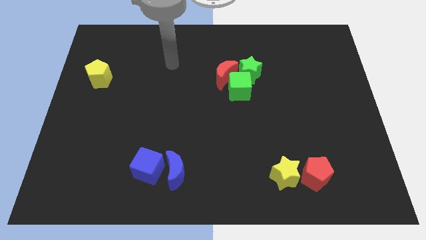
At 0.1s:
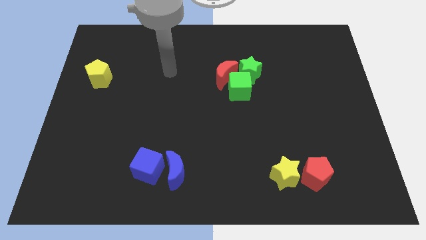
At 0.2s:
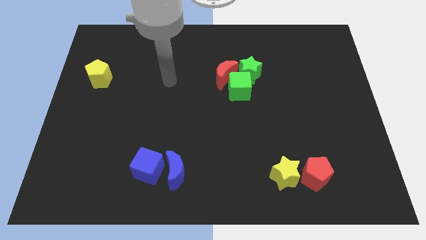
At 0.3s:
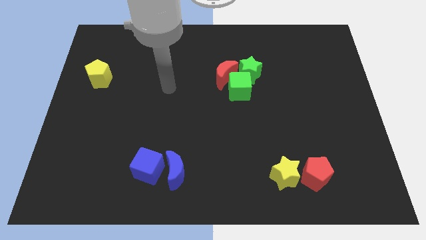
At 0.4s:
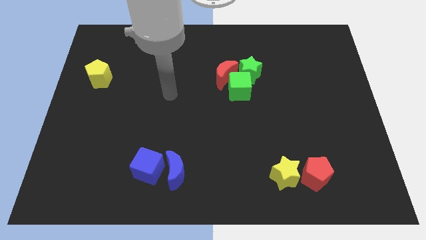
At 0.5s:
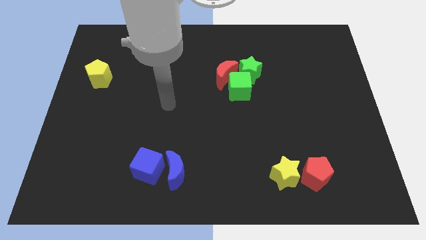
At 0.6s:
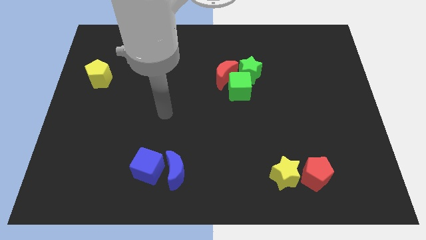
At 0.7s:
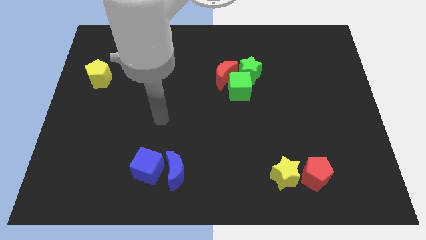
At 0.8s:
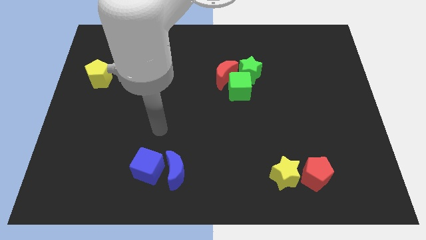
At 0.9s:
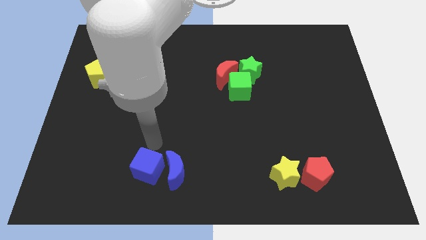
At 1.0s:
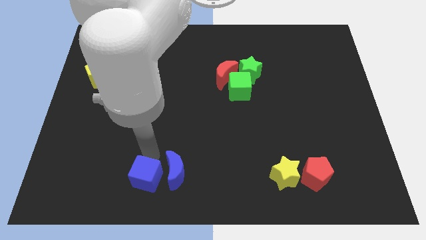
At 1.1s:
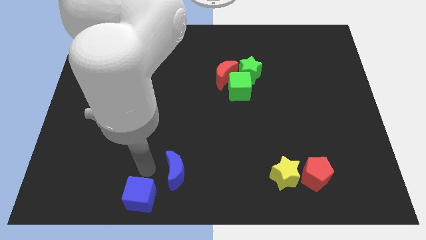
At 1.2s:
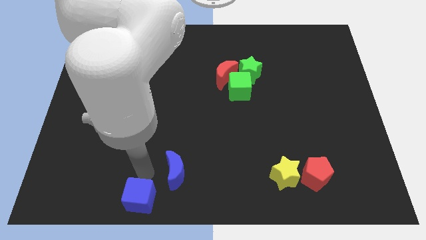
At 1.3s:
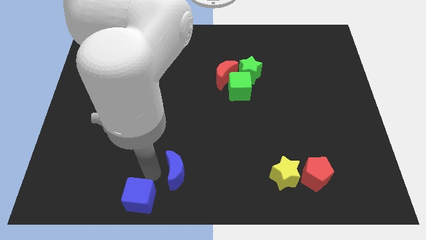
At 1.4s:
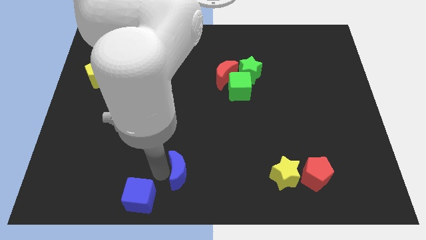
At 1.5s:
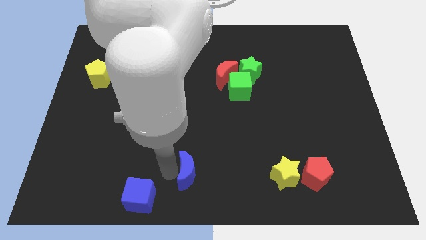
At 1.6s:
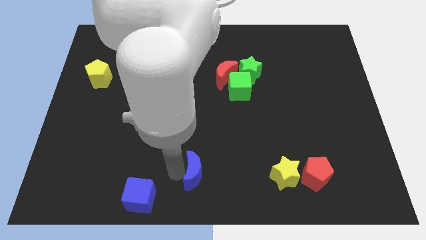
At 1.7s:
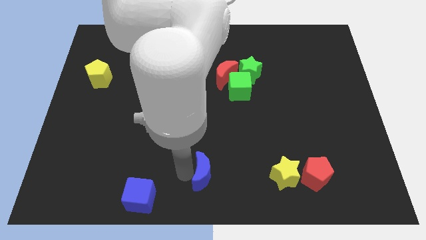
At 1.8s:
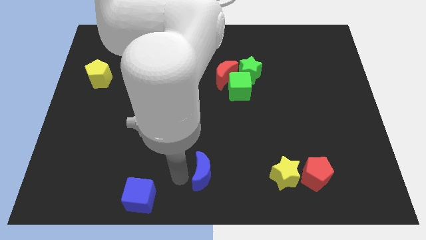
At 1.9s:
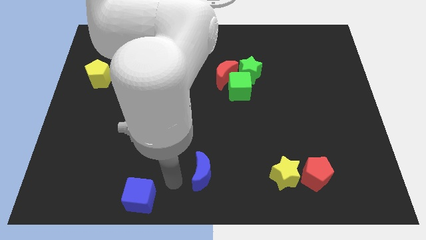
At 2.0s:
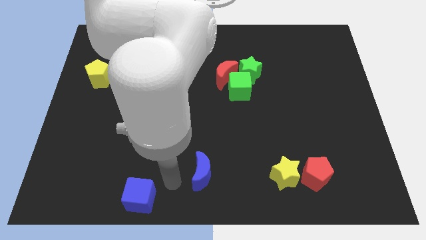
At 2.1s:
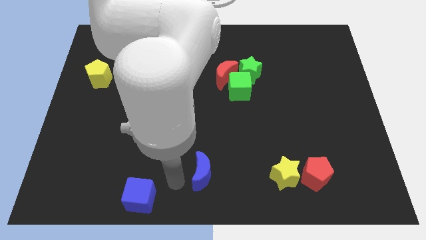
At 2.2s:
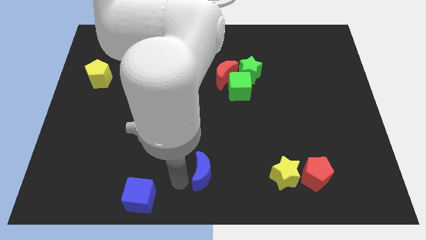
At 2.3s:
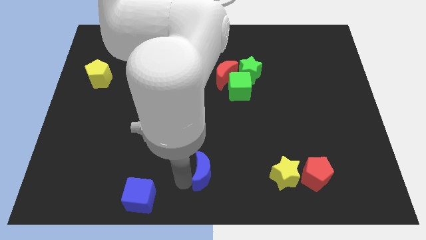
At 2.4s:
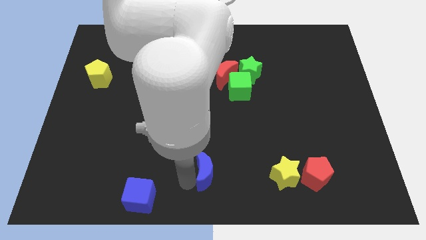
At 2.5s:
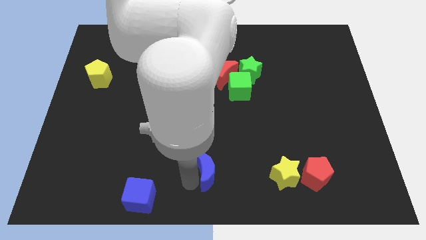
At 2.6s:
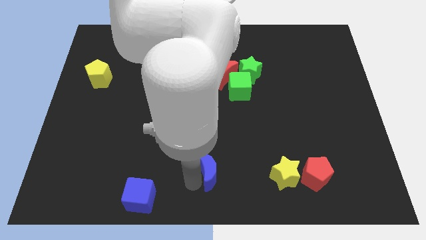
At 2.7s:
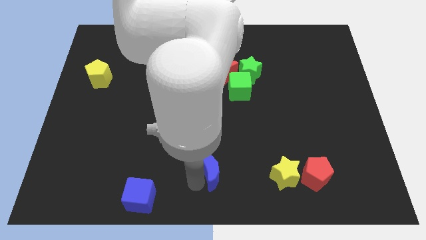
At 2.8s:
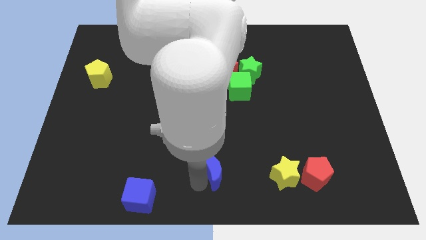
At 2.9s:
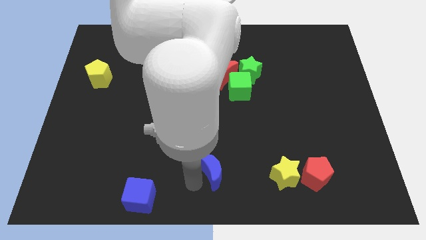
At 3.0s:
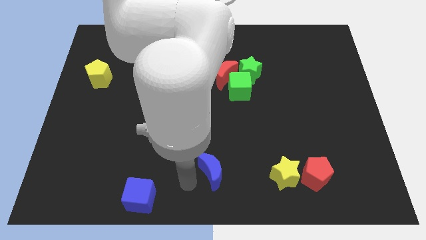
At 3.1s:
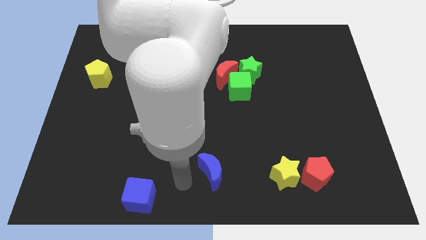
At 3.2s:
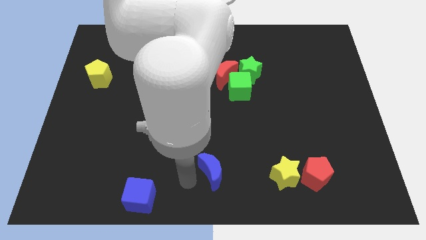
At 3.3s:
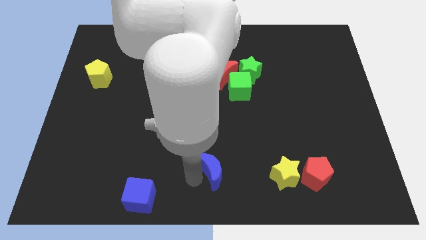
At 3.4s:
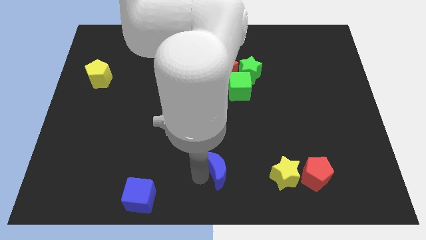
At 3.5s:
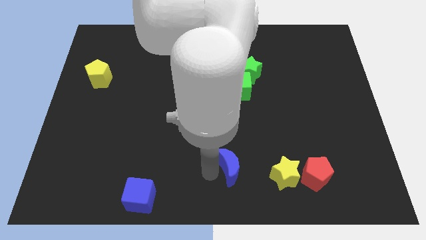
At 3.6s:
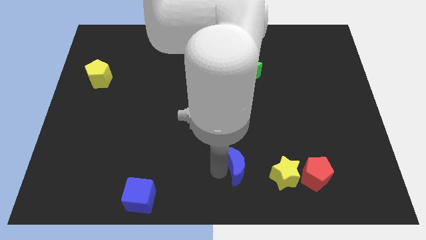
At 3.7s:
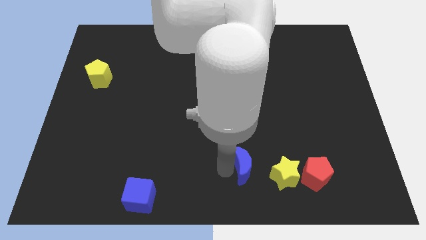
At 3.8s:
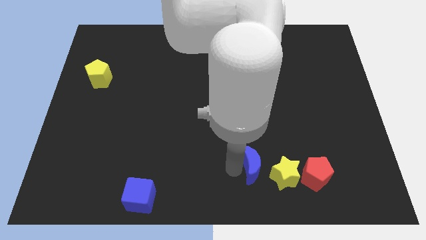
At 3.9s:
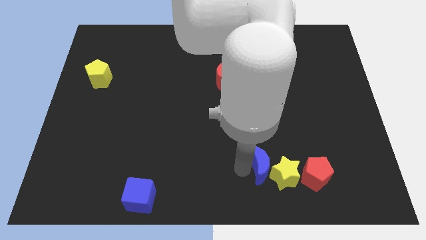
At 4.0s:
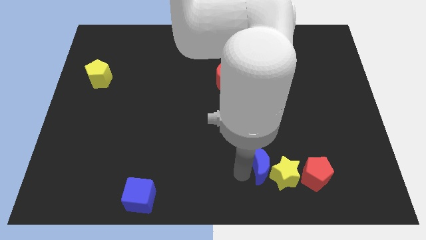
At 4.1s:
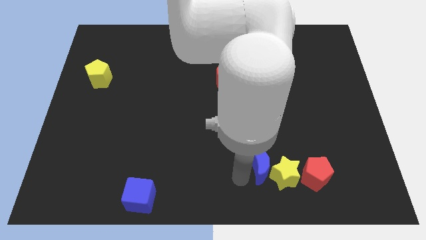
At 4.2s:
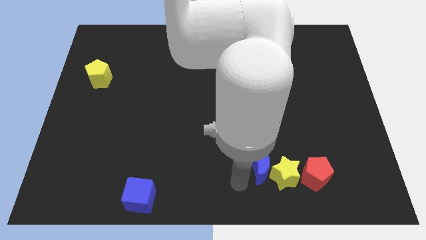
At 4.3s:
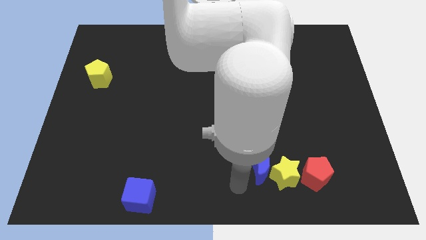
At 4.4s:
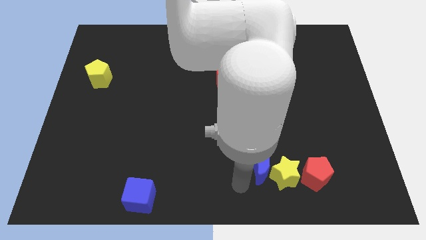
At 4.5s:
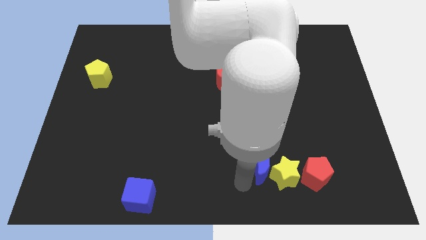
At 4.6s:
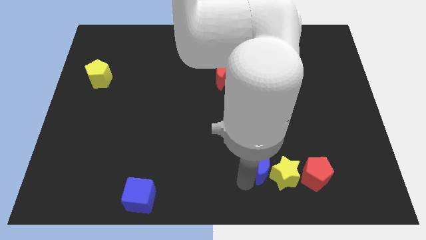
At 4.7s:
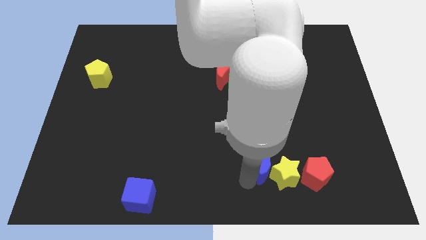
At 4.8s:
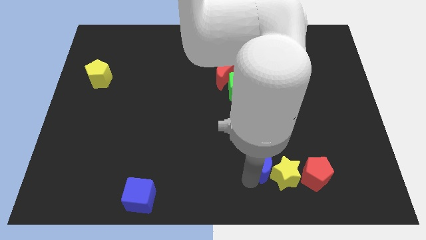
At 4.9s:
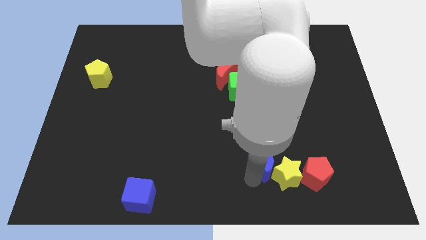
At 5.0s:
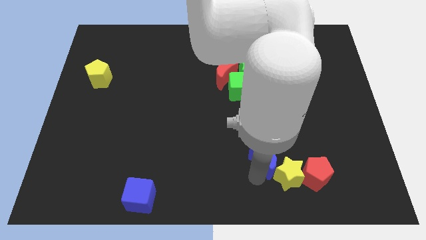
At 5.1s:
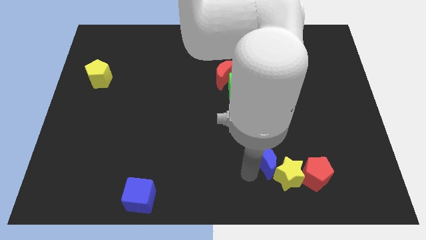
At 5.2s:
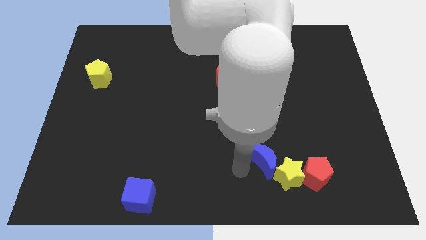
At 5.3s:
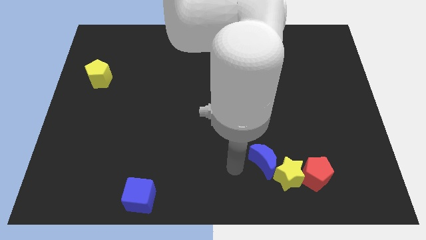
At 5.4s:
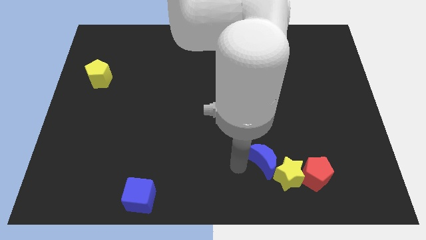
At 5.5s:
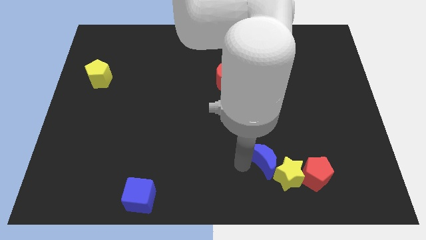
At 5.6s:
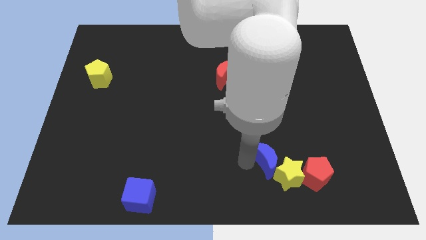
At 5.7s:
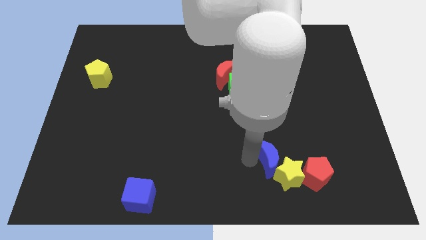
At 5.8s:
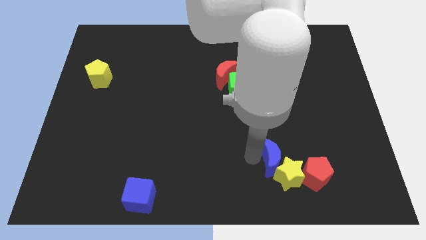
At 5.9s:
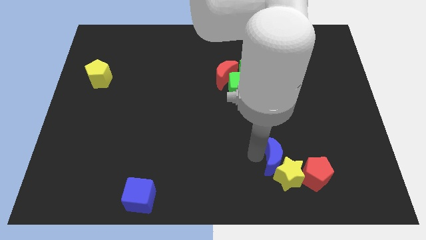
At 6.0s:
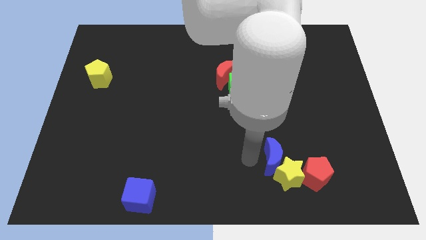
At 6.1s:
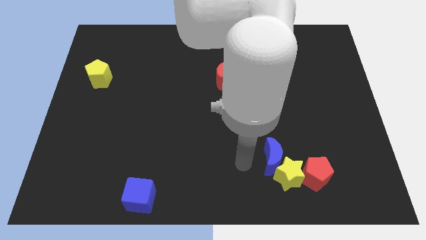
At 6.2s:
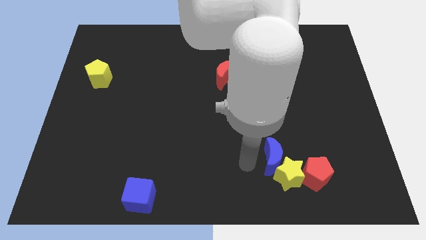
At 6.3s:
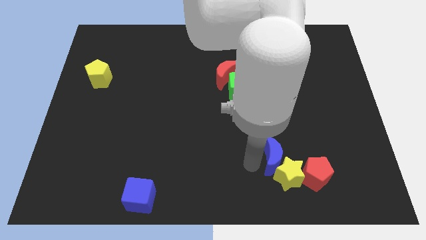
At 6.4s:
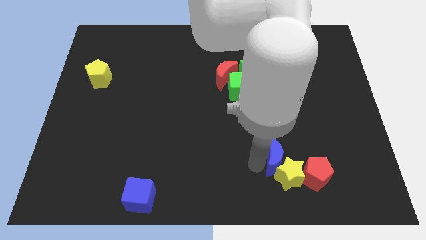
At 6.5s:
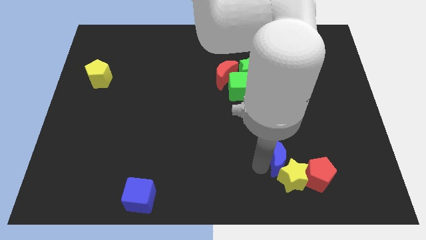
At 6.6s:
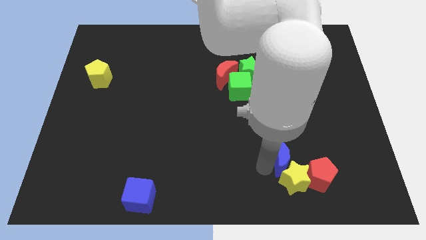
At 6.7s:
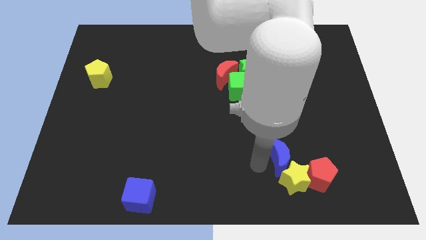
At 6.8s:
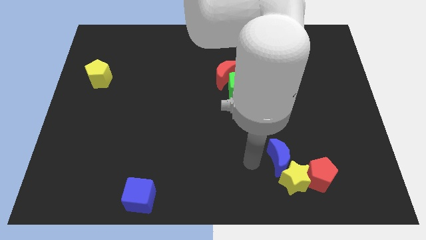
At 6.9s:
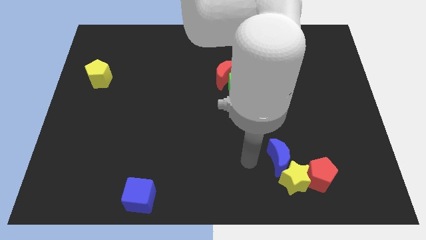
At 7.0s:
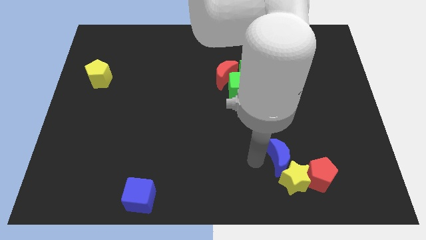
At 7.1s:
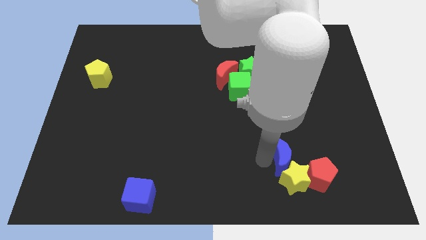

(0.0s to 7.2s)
slide the blue moon to the top right of the yellow star
